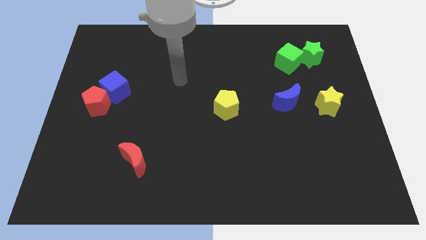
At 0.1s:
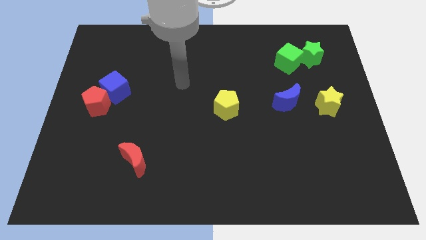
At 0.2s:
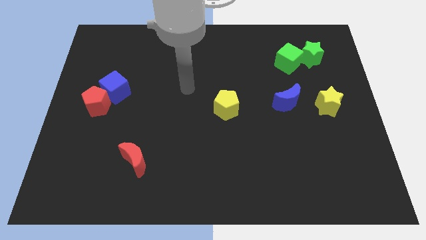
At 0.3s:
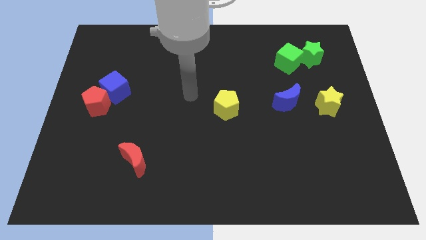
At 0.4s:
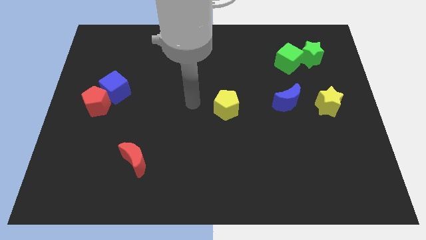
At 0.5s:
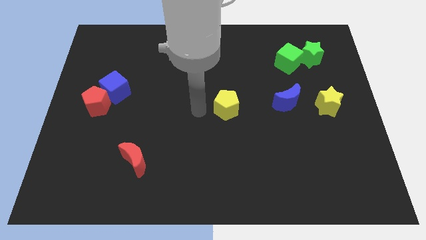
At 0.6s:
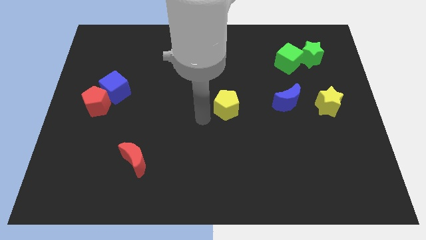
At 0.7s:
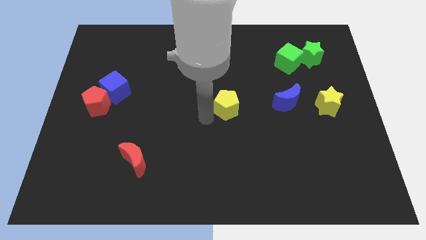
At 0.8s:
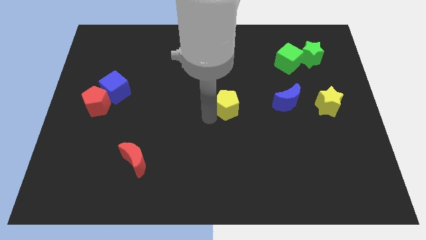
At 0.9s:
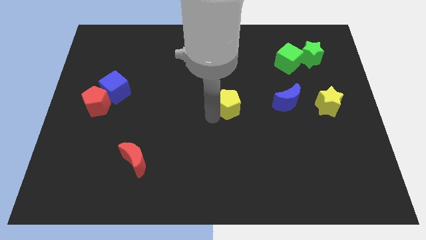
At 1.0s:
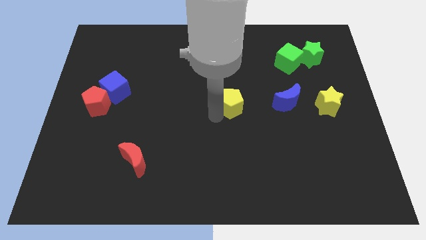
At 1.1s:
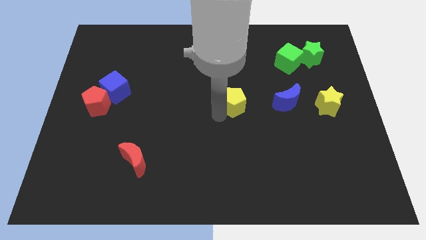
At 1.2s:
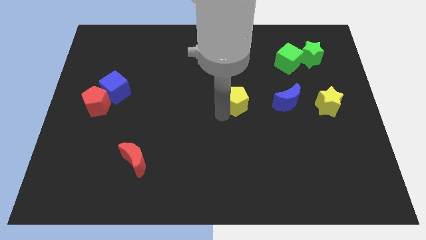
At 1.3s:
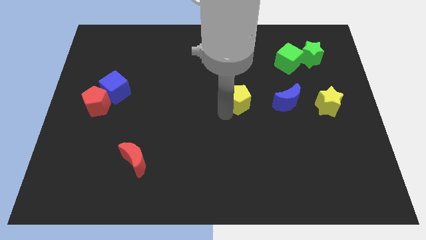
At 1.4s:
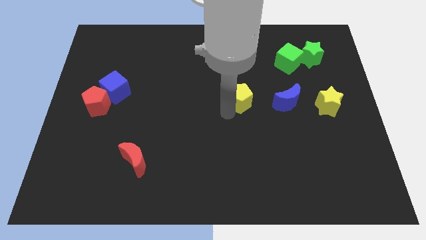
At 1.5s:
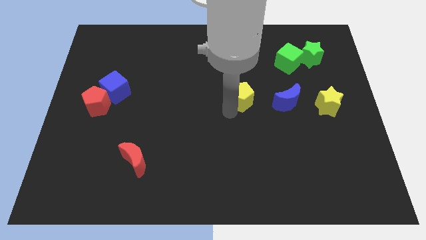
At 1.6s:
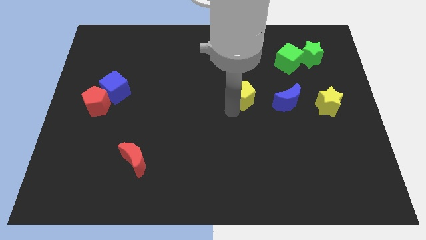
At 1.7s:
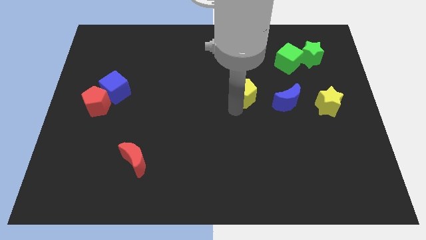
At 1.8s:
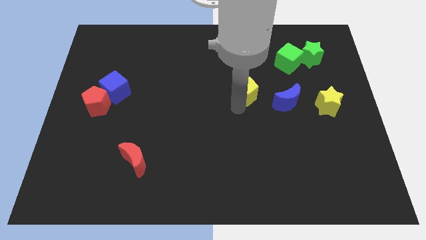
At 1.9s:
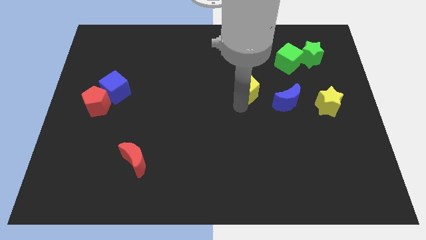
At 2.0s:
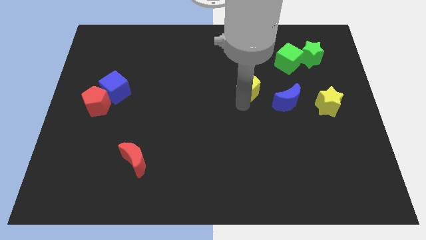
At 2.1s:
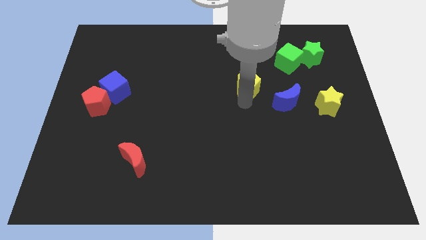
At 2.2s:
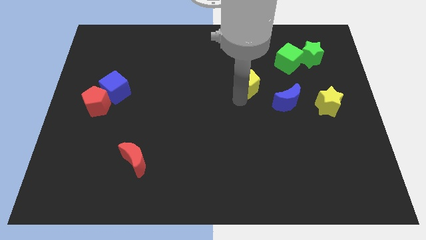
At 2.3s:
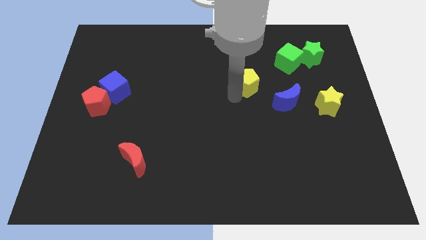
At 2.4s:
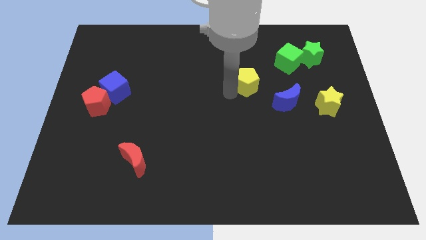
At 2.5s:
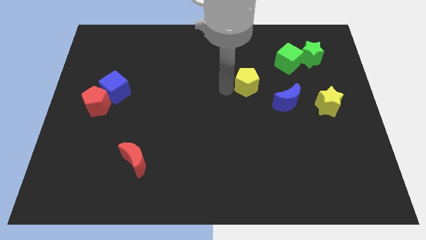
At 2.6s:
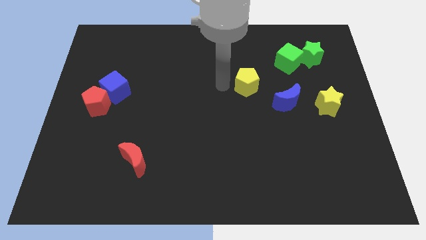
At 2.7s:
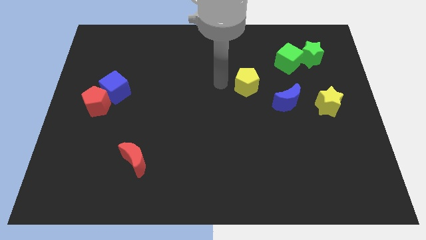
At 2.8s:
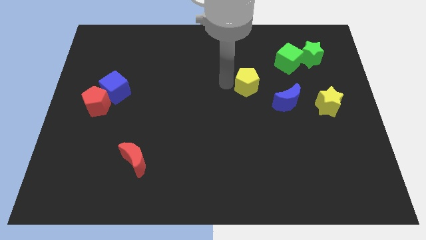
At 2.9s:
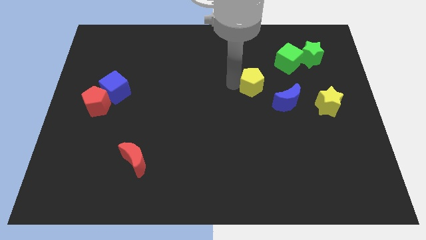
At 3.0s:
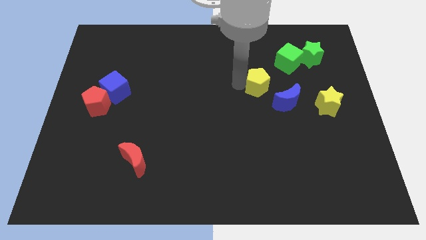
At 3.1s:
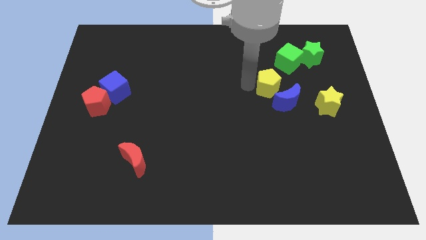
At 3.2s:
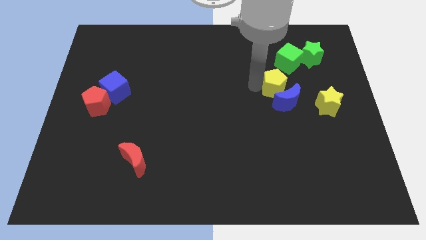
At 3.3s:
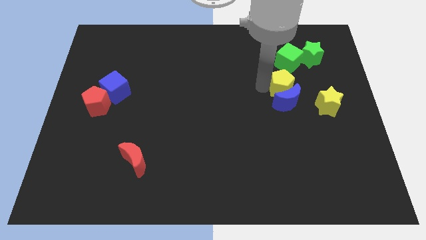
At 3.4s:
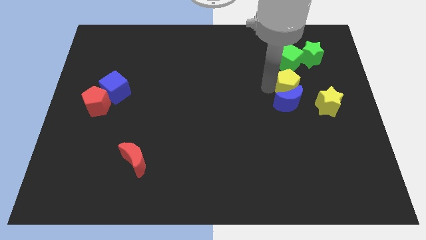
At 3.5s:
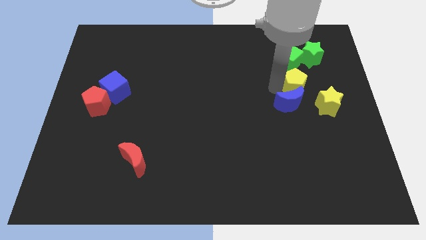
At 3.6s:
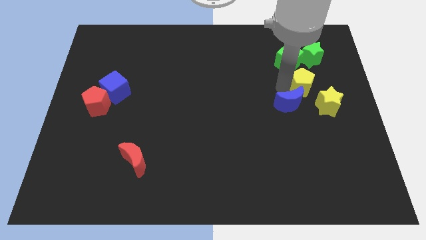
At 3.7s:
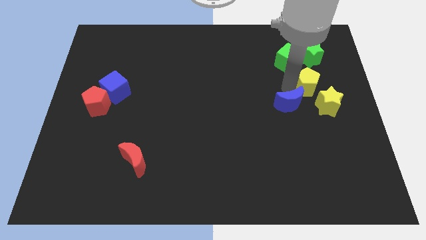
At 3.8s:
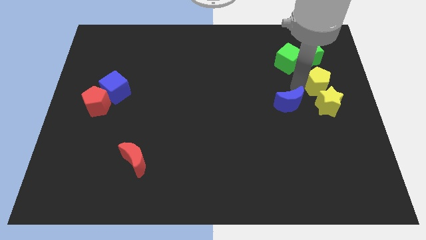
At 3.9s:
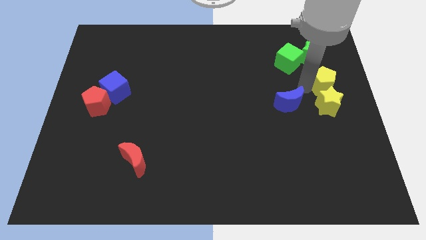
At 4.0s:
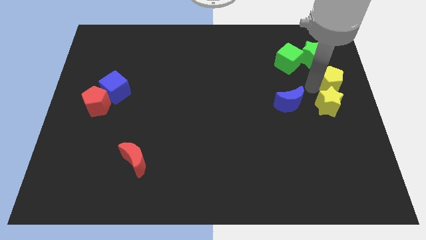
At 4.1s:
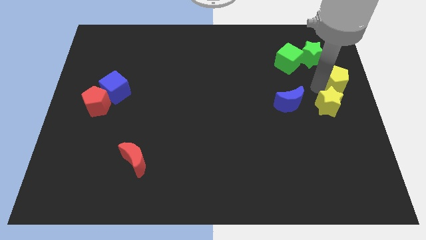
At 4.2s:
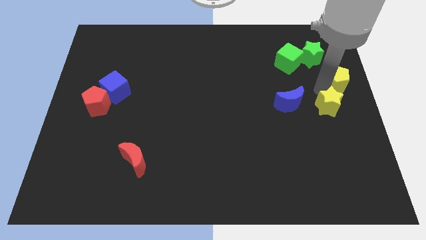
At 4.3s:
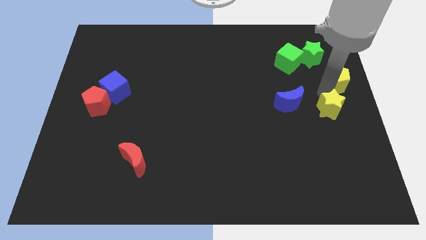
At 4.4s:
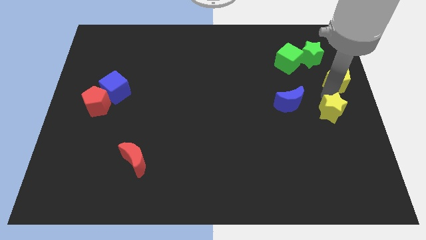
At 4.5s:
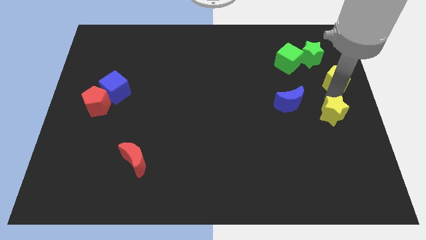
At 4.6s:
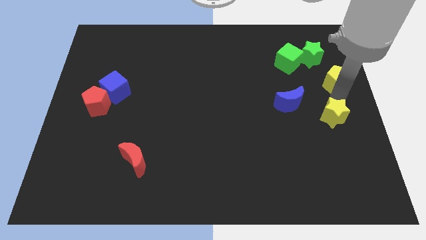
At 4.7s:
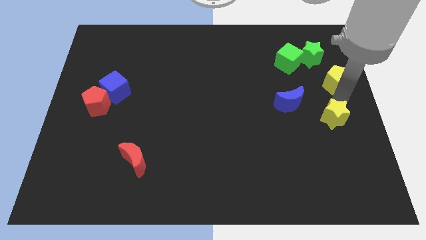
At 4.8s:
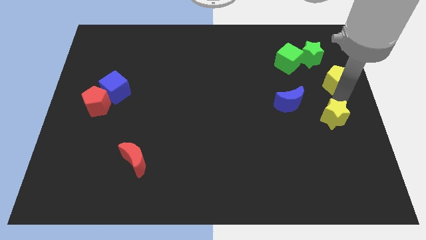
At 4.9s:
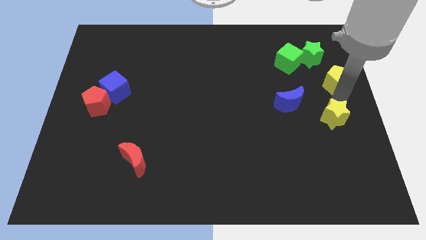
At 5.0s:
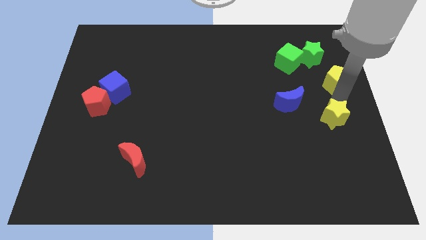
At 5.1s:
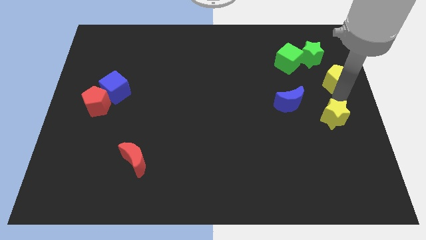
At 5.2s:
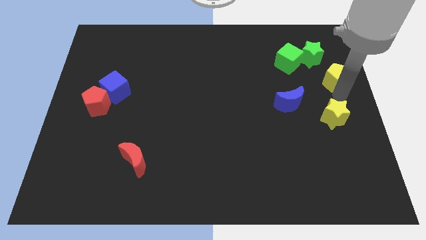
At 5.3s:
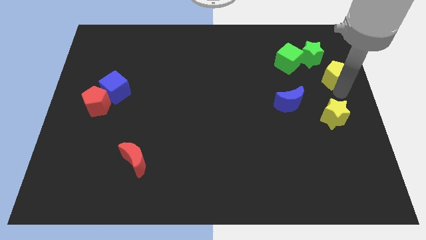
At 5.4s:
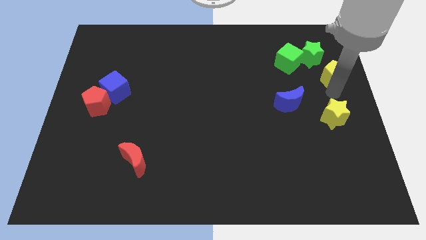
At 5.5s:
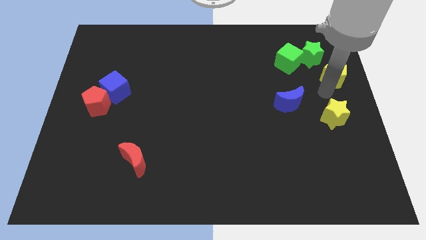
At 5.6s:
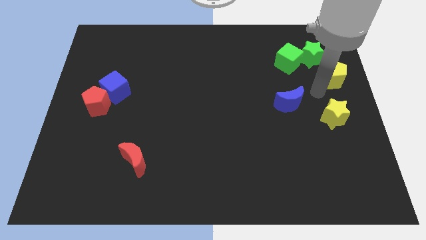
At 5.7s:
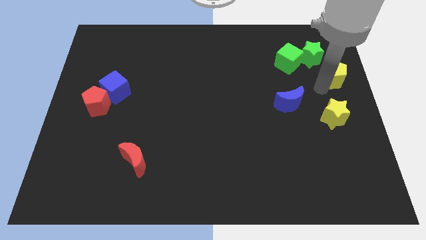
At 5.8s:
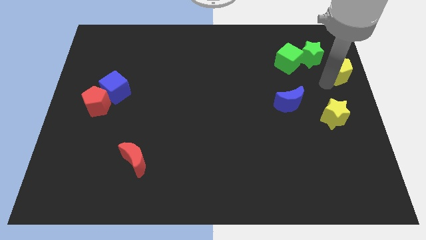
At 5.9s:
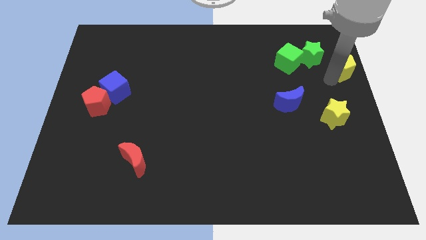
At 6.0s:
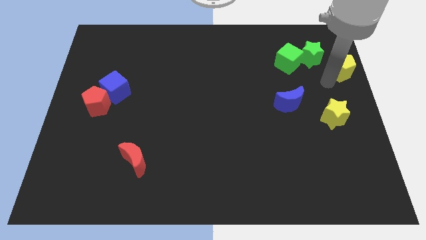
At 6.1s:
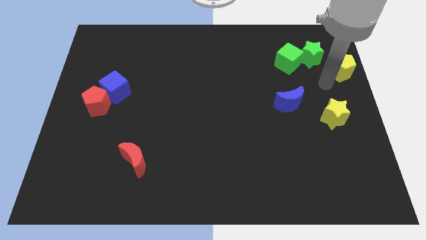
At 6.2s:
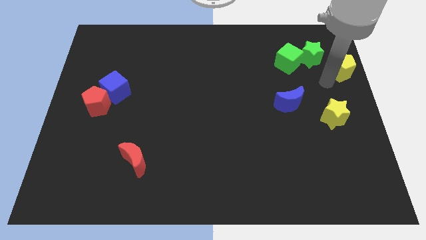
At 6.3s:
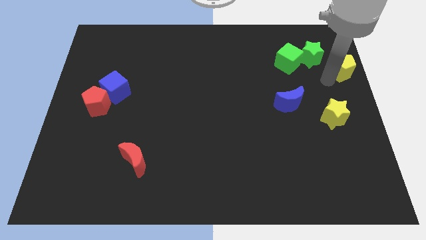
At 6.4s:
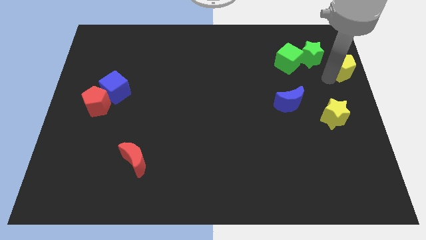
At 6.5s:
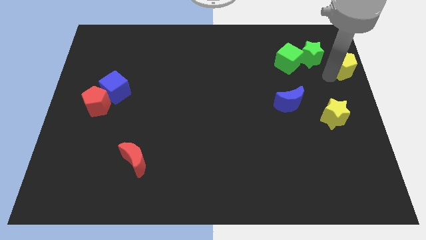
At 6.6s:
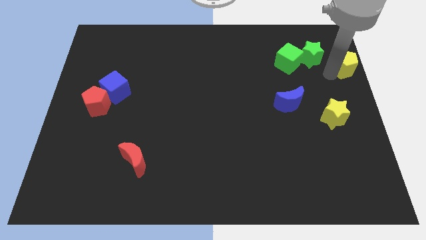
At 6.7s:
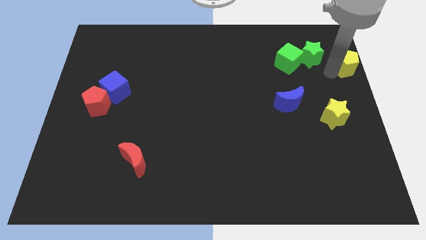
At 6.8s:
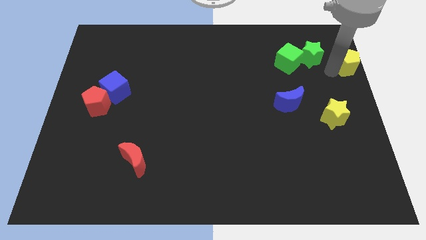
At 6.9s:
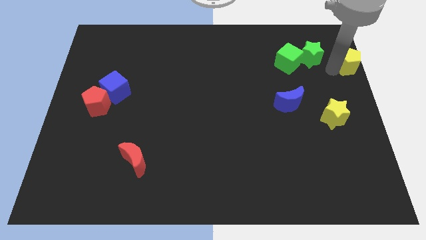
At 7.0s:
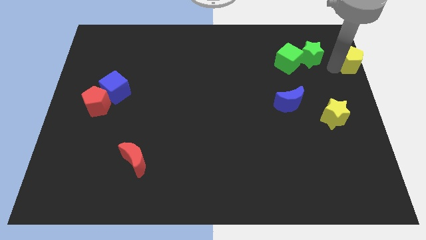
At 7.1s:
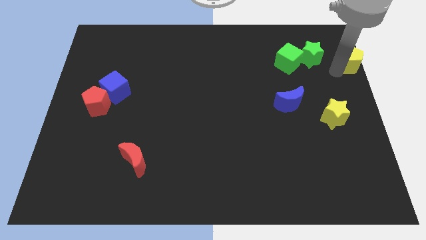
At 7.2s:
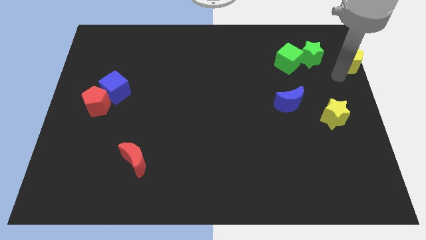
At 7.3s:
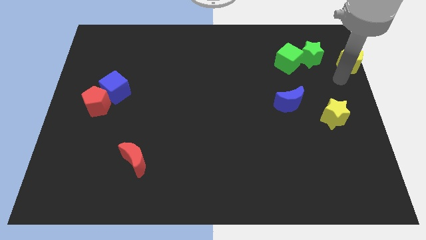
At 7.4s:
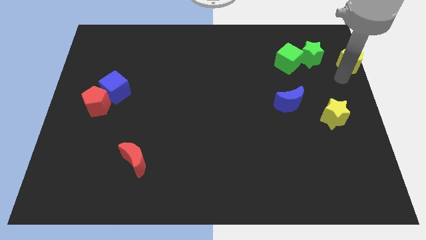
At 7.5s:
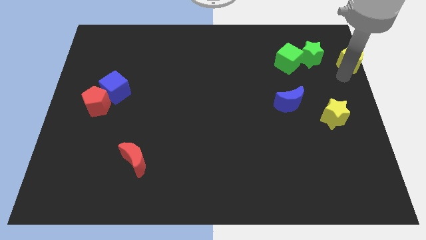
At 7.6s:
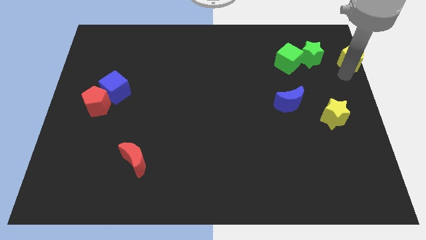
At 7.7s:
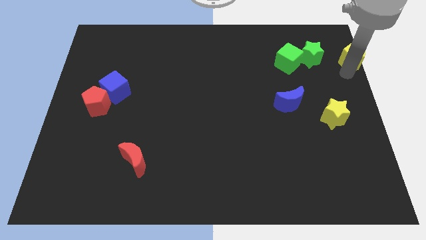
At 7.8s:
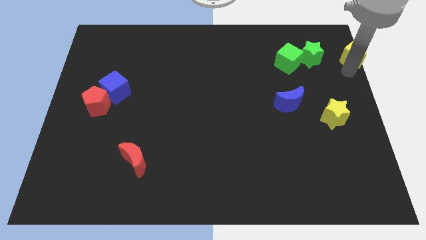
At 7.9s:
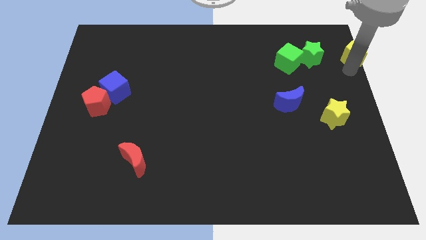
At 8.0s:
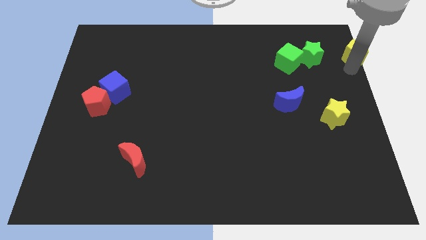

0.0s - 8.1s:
put the yellow pentagon to the top right corner
